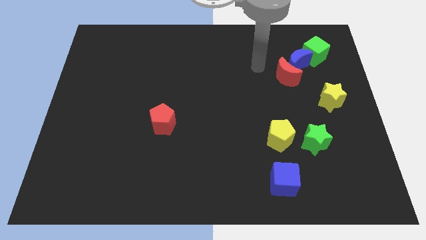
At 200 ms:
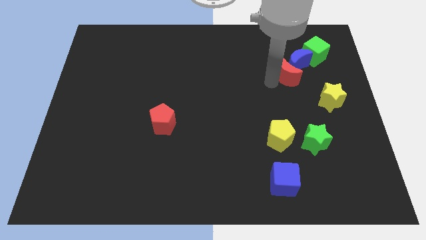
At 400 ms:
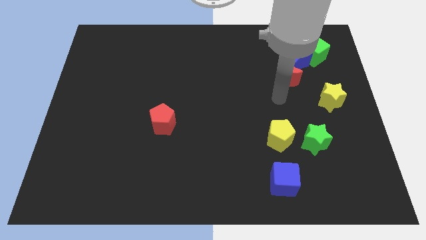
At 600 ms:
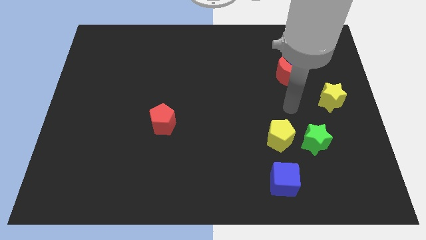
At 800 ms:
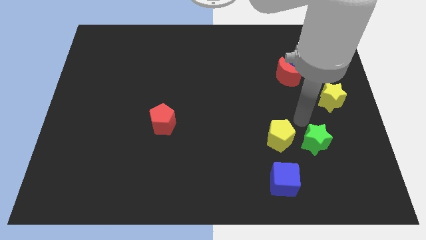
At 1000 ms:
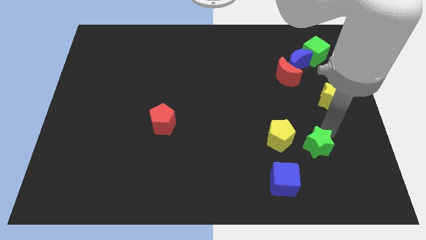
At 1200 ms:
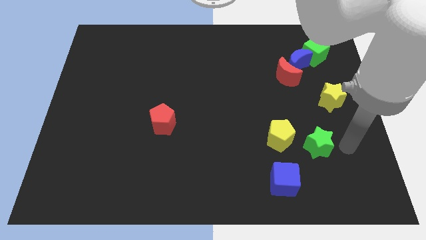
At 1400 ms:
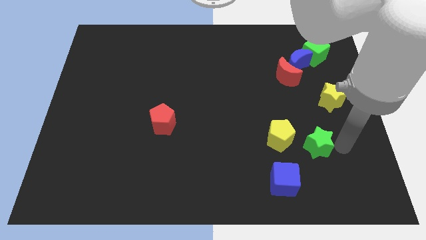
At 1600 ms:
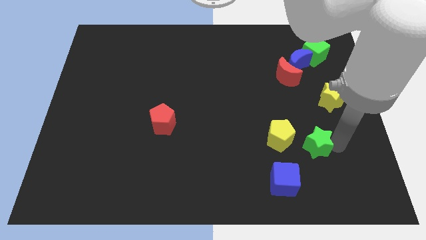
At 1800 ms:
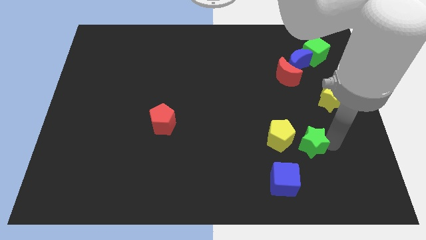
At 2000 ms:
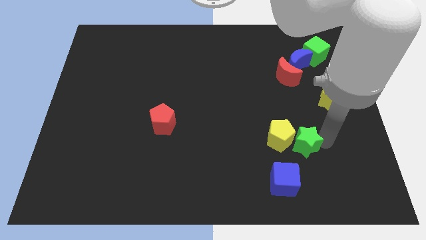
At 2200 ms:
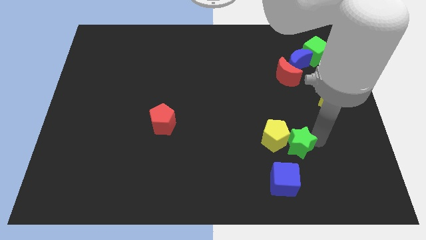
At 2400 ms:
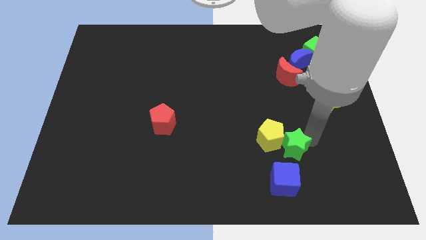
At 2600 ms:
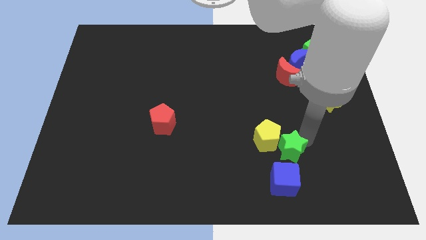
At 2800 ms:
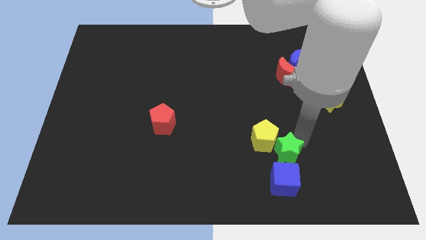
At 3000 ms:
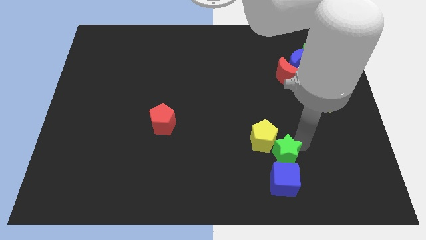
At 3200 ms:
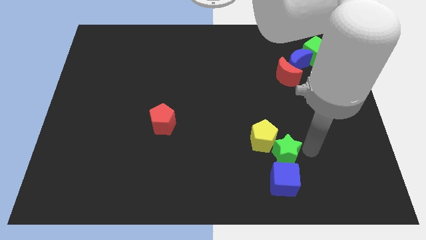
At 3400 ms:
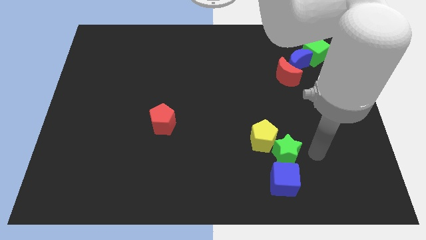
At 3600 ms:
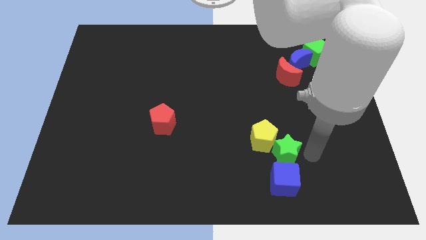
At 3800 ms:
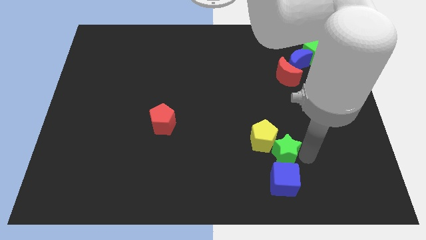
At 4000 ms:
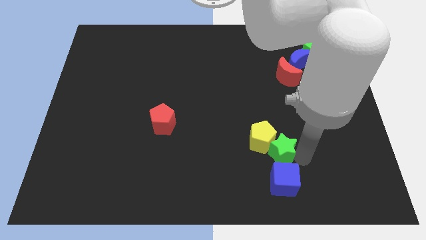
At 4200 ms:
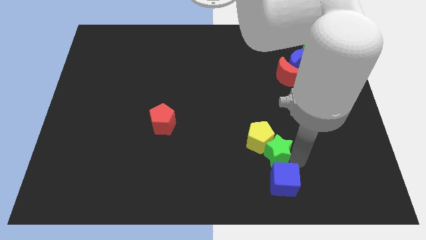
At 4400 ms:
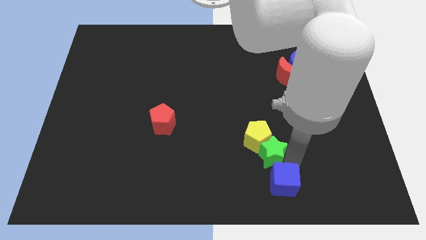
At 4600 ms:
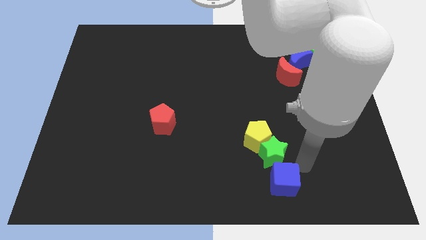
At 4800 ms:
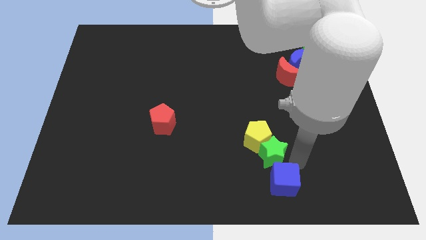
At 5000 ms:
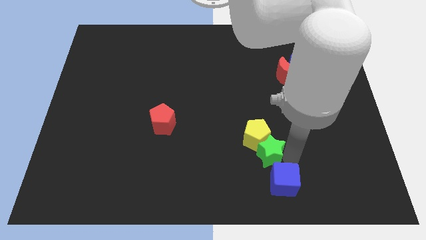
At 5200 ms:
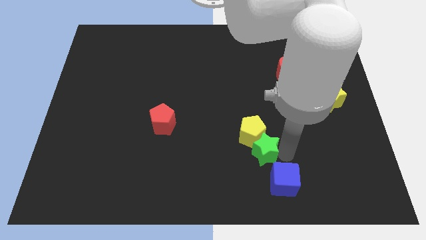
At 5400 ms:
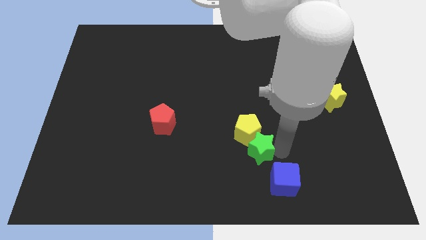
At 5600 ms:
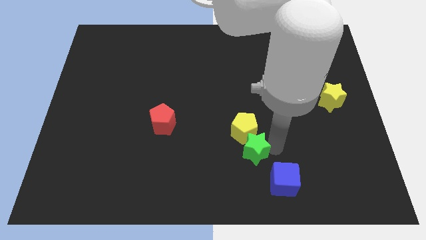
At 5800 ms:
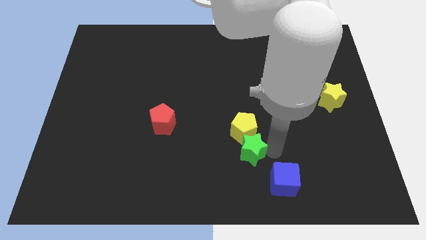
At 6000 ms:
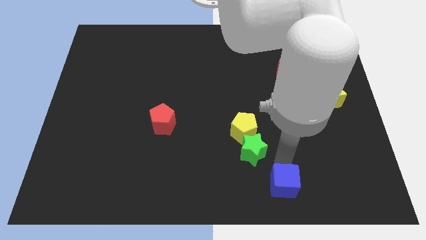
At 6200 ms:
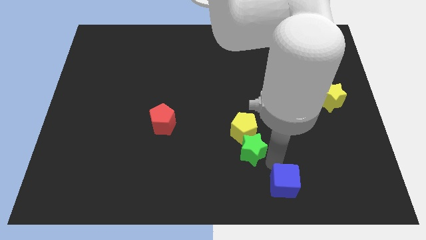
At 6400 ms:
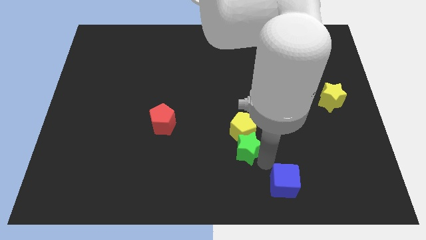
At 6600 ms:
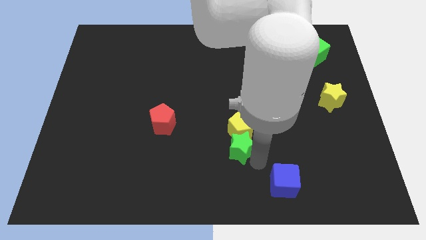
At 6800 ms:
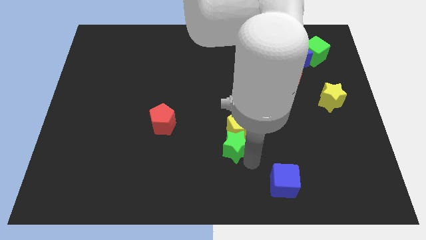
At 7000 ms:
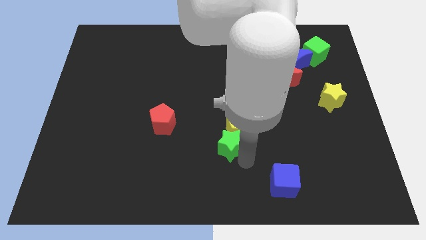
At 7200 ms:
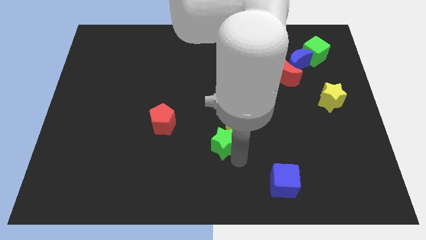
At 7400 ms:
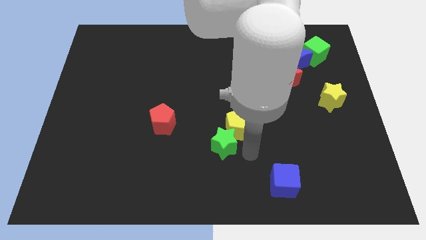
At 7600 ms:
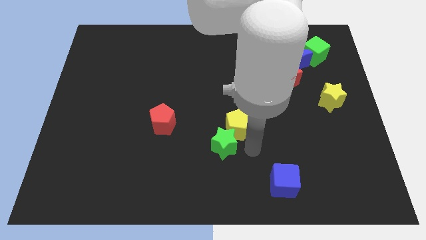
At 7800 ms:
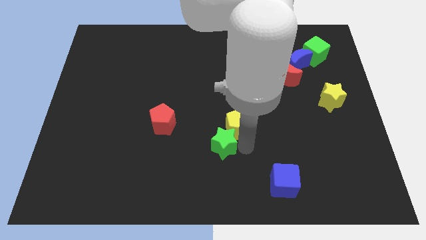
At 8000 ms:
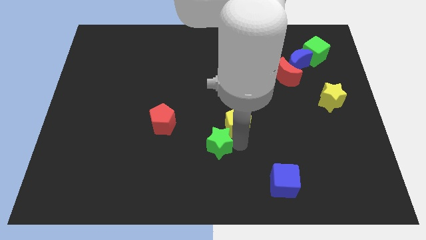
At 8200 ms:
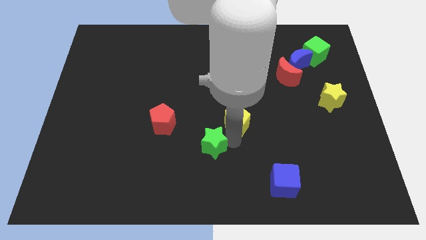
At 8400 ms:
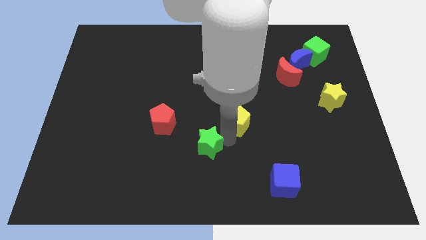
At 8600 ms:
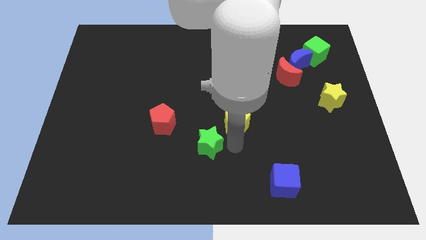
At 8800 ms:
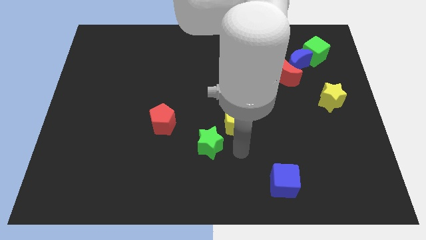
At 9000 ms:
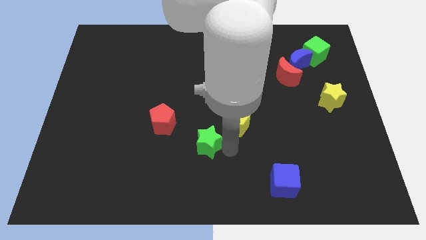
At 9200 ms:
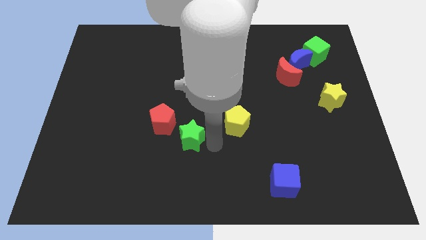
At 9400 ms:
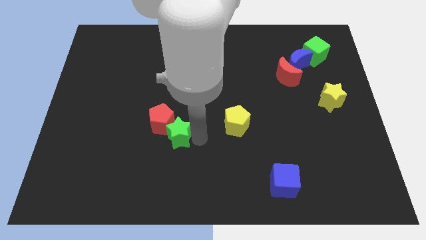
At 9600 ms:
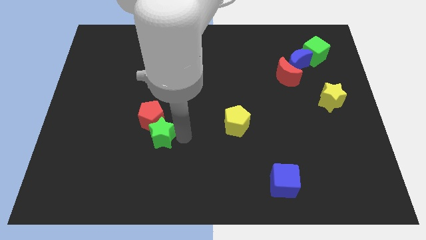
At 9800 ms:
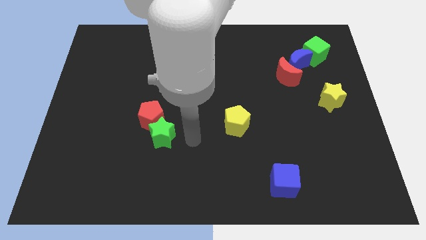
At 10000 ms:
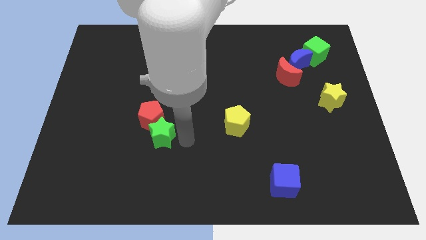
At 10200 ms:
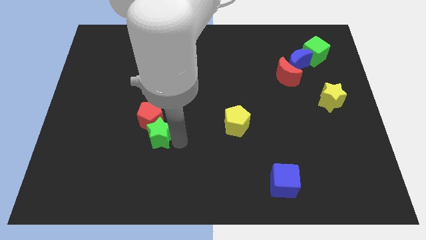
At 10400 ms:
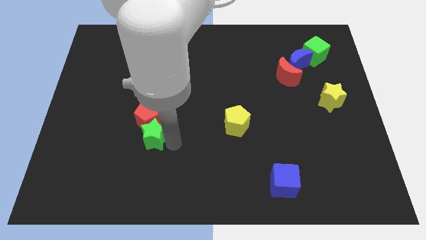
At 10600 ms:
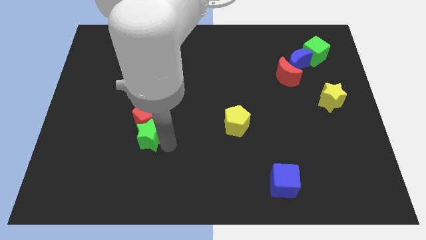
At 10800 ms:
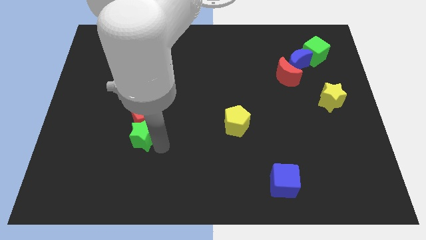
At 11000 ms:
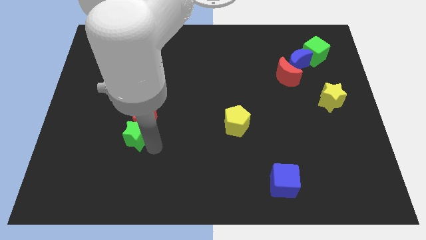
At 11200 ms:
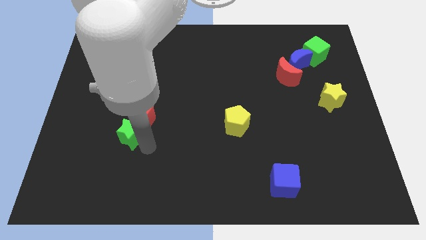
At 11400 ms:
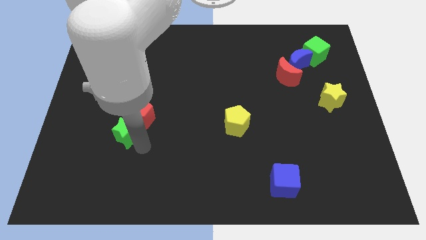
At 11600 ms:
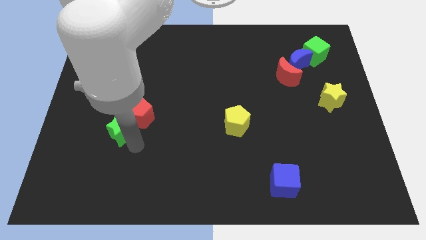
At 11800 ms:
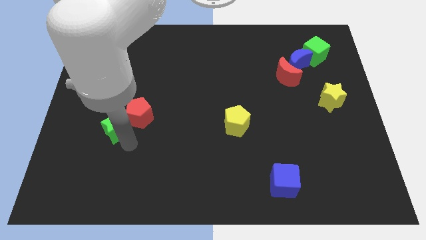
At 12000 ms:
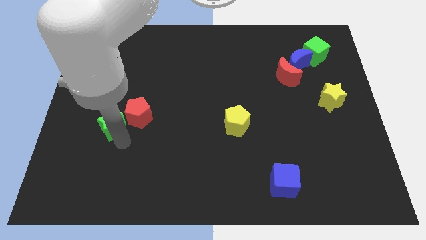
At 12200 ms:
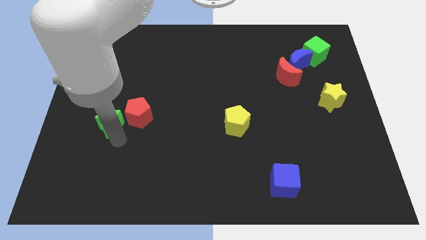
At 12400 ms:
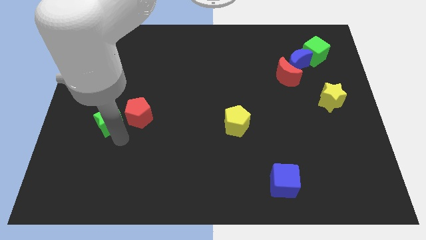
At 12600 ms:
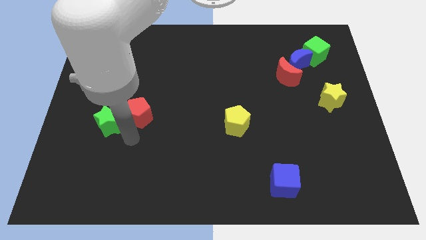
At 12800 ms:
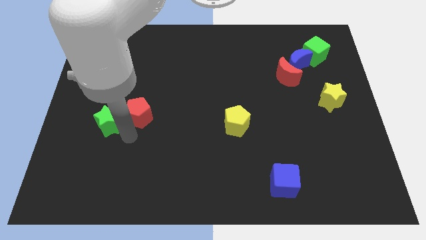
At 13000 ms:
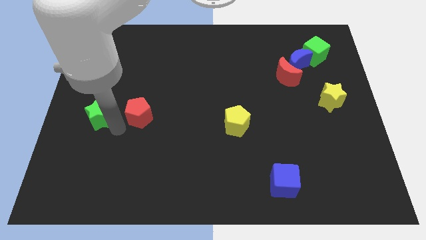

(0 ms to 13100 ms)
push the green star to the left side of the board
